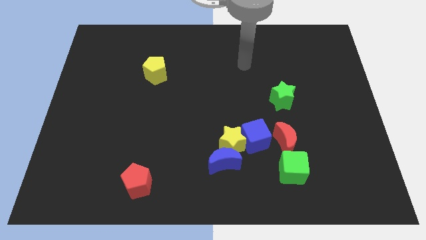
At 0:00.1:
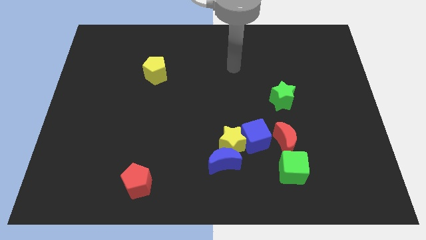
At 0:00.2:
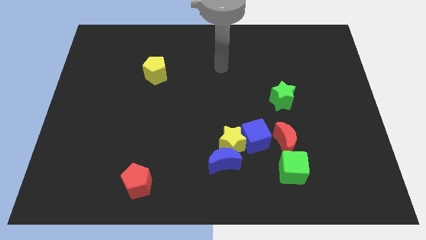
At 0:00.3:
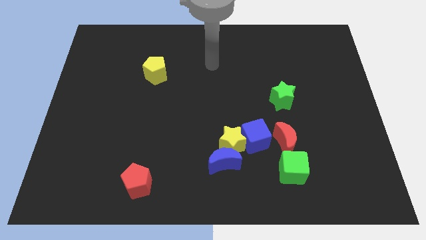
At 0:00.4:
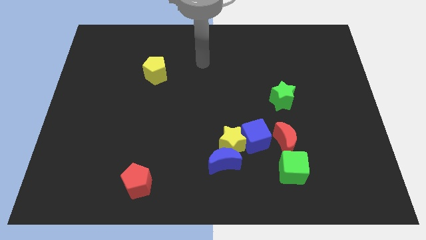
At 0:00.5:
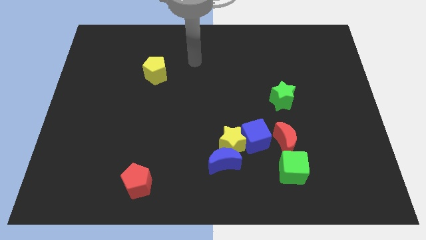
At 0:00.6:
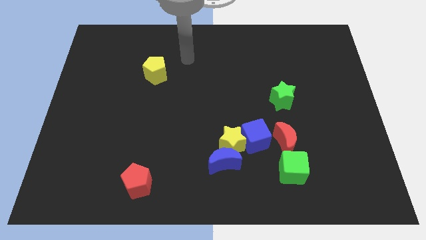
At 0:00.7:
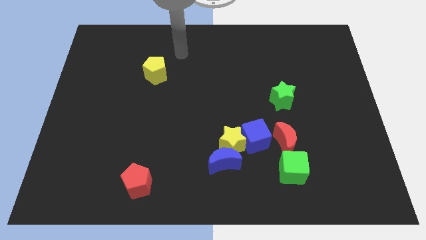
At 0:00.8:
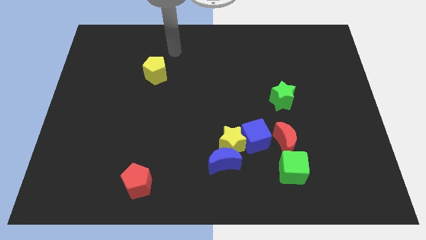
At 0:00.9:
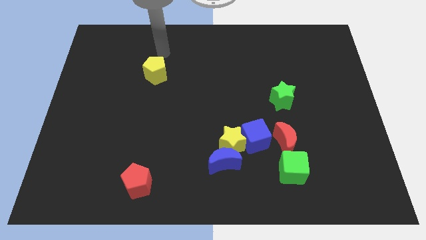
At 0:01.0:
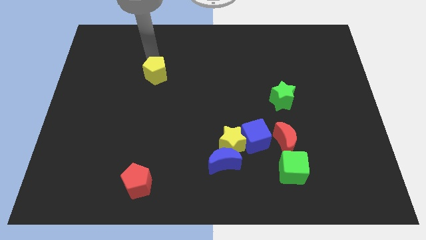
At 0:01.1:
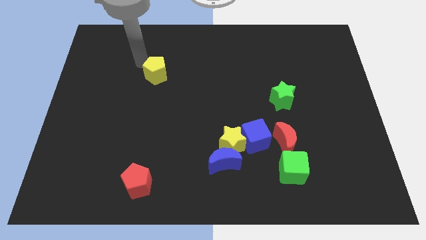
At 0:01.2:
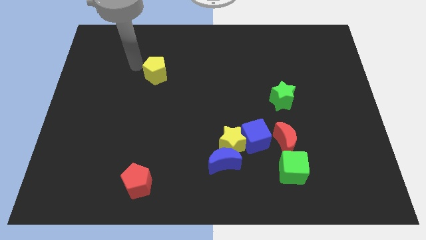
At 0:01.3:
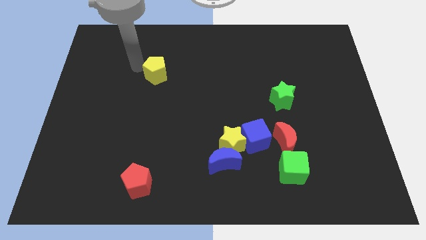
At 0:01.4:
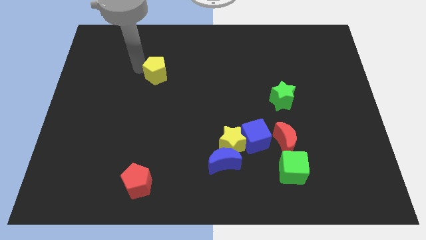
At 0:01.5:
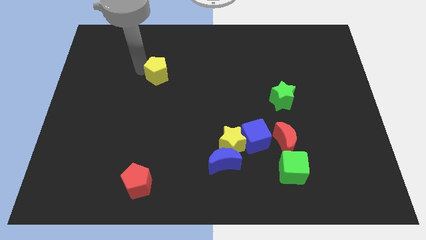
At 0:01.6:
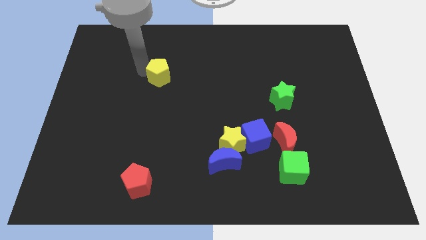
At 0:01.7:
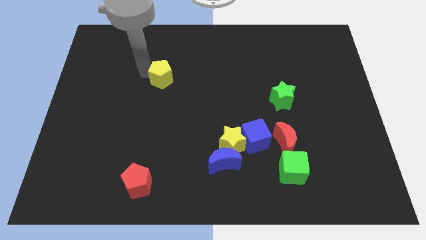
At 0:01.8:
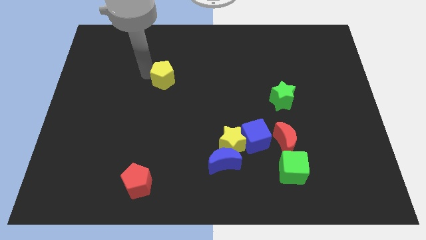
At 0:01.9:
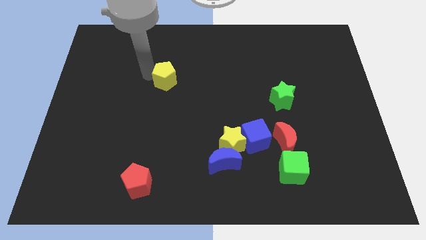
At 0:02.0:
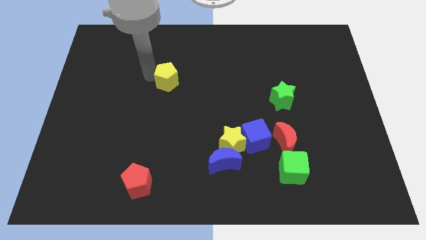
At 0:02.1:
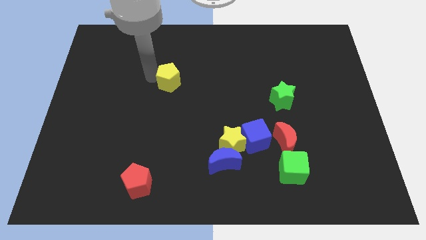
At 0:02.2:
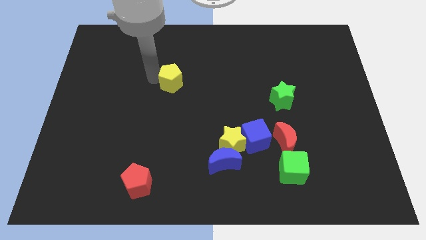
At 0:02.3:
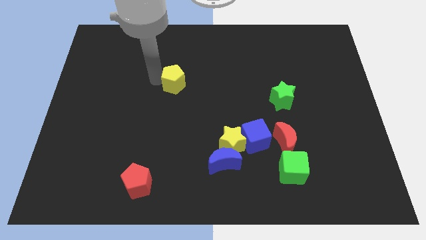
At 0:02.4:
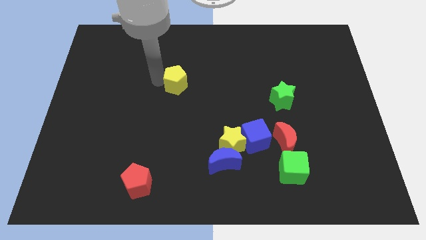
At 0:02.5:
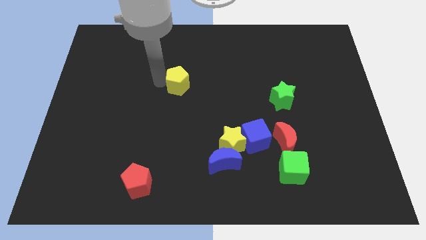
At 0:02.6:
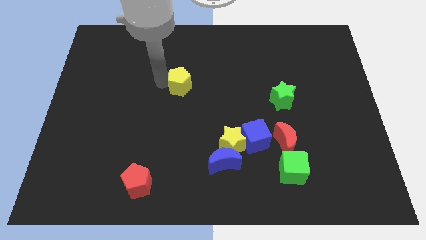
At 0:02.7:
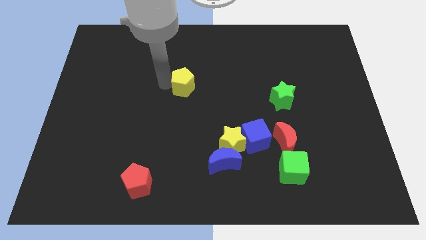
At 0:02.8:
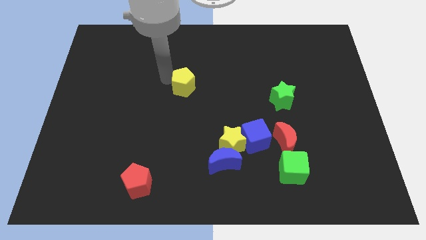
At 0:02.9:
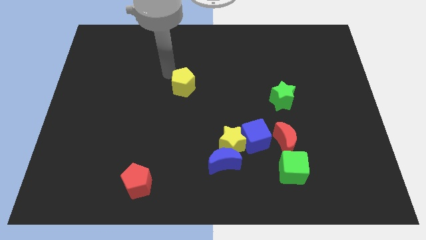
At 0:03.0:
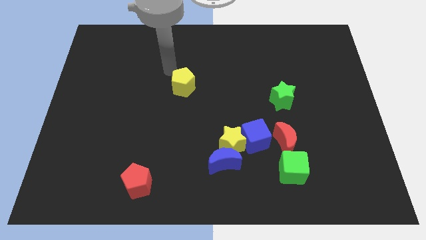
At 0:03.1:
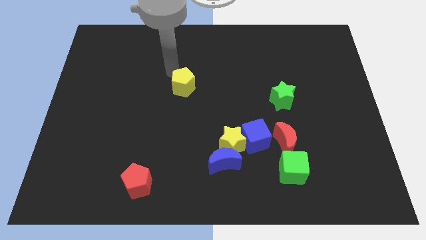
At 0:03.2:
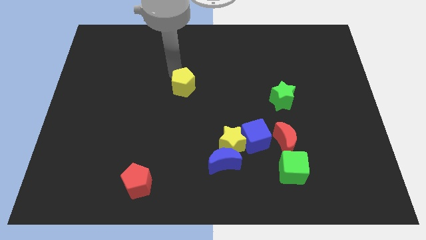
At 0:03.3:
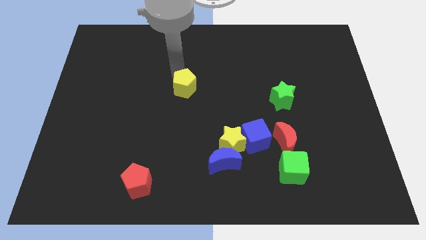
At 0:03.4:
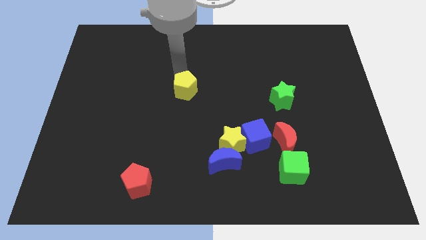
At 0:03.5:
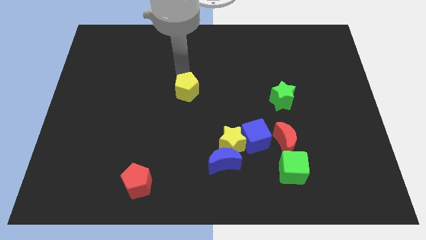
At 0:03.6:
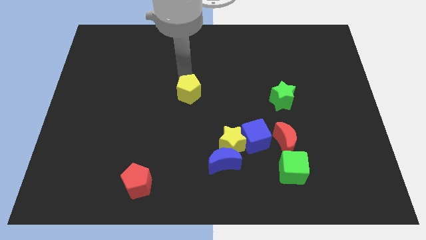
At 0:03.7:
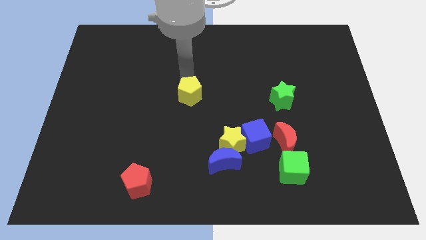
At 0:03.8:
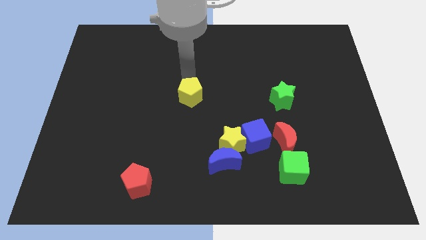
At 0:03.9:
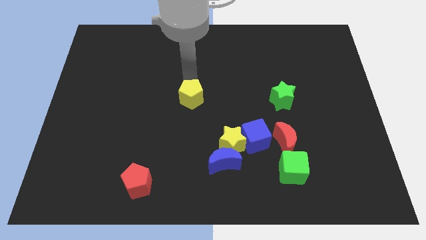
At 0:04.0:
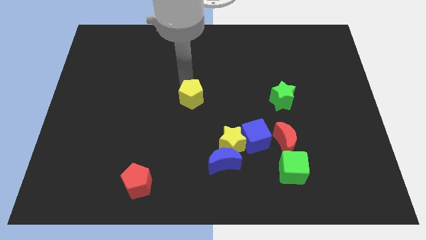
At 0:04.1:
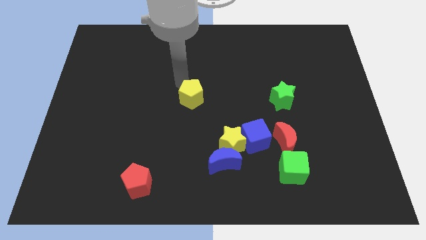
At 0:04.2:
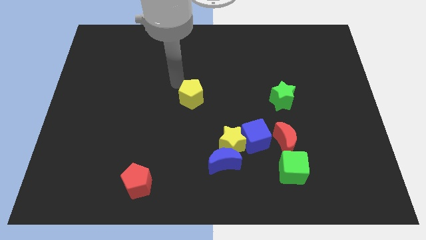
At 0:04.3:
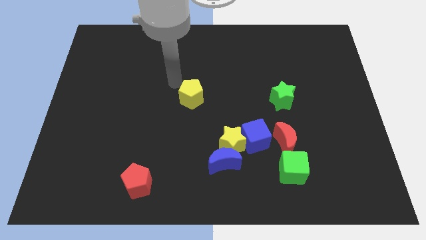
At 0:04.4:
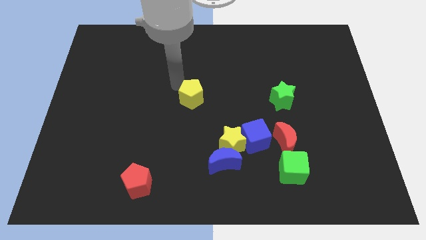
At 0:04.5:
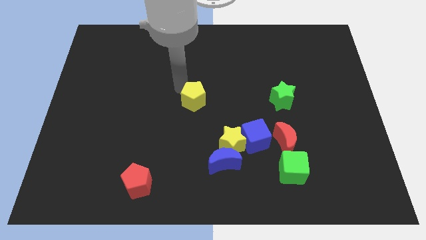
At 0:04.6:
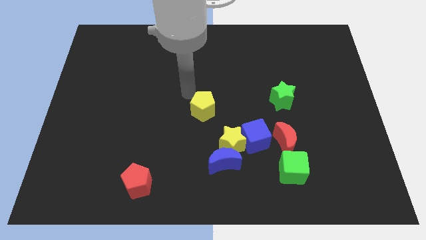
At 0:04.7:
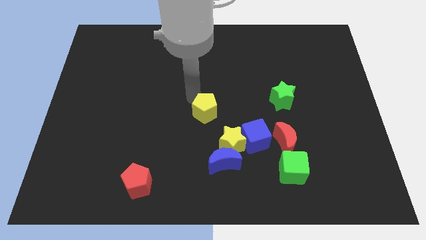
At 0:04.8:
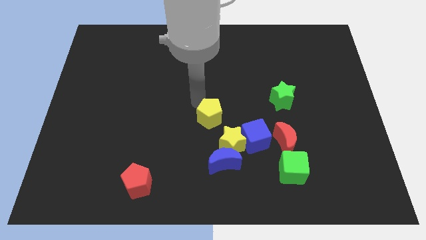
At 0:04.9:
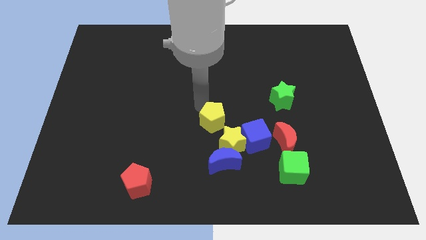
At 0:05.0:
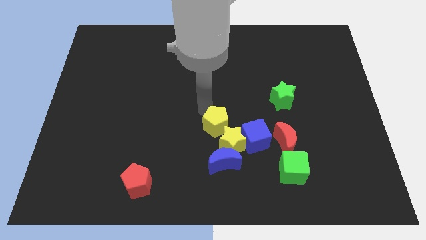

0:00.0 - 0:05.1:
push the yellow pentagon next to the yellow star

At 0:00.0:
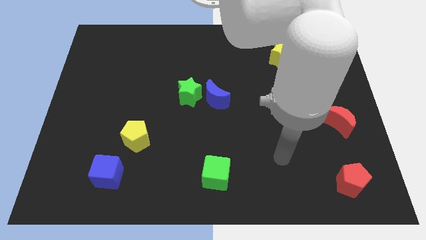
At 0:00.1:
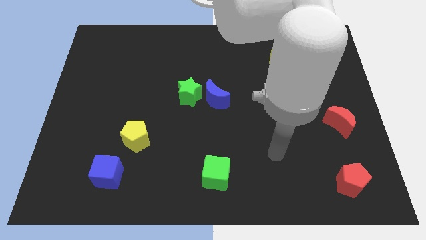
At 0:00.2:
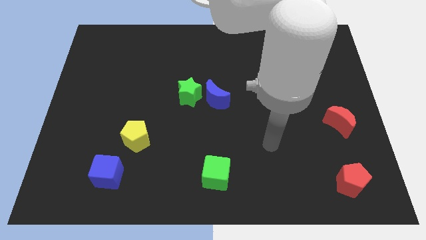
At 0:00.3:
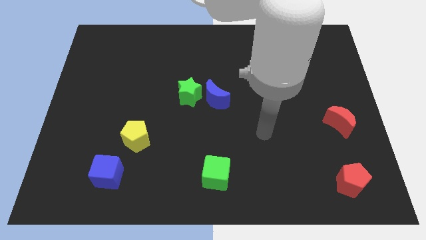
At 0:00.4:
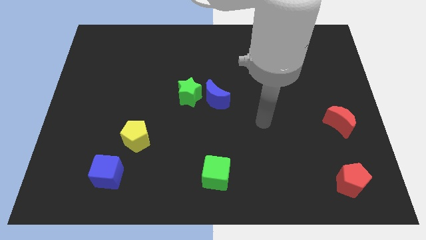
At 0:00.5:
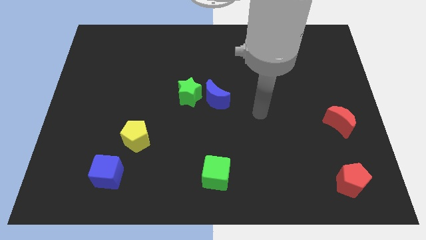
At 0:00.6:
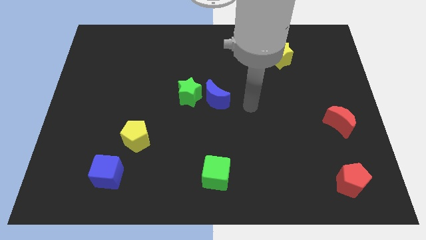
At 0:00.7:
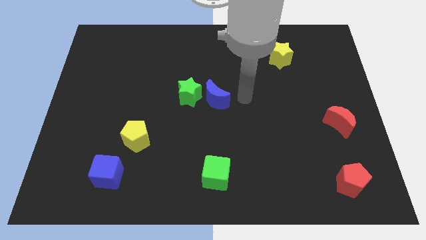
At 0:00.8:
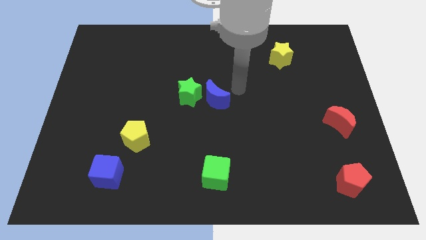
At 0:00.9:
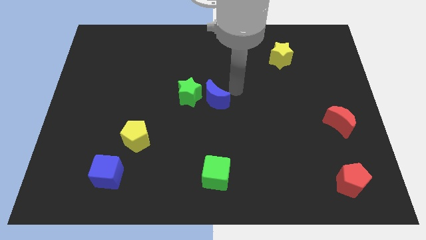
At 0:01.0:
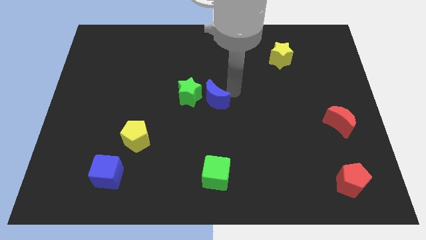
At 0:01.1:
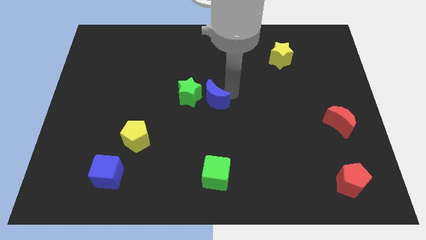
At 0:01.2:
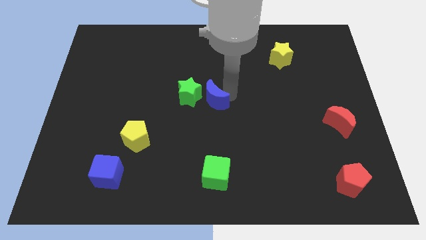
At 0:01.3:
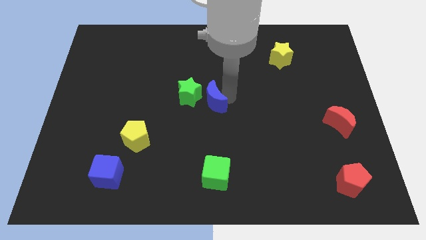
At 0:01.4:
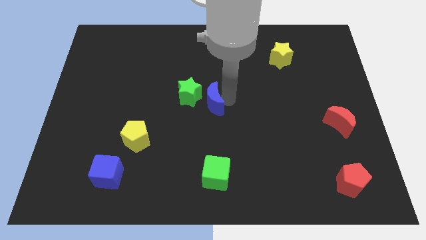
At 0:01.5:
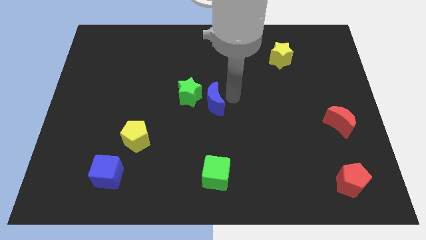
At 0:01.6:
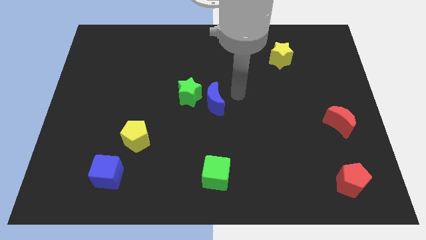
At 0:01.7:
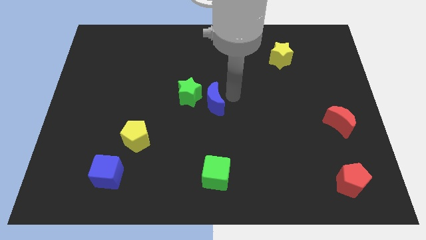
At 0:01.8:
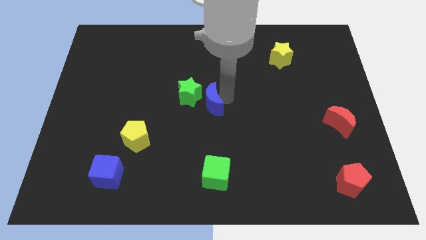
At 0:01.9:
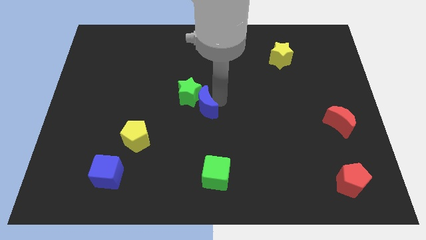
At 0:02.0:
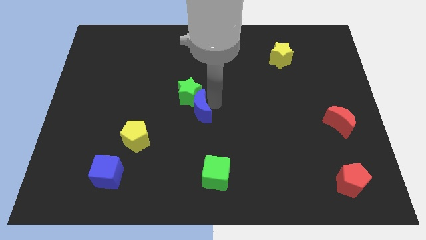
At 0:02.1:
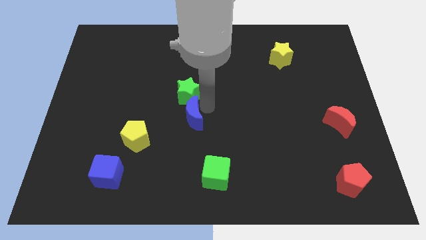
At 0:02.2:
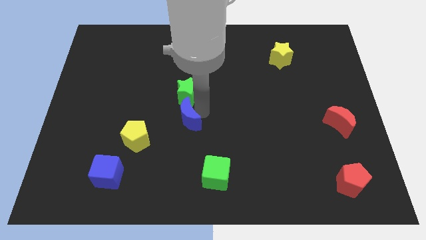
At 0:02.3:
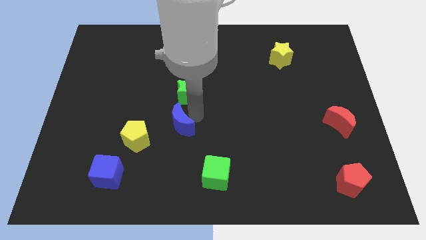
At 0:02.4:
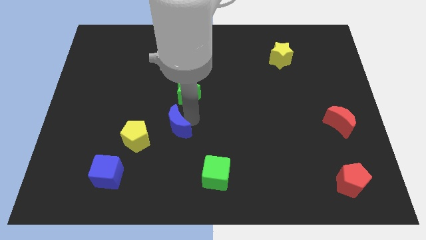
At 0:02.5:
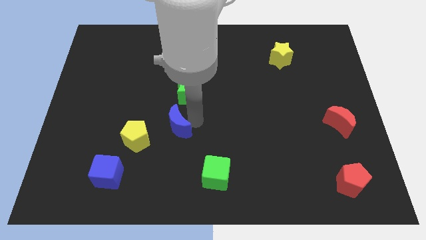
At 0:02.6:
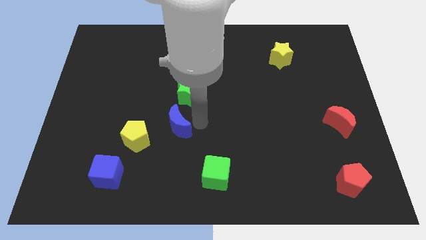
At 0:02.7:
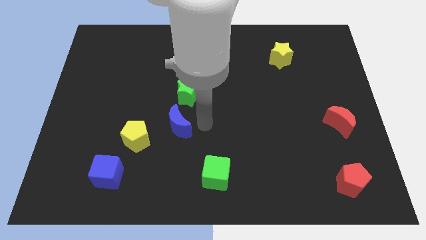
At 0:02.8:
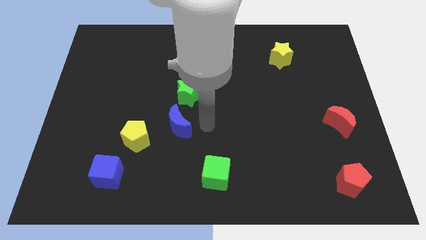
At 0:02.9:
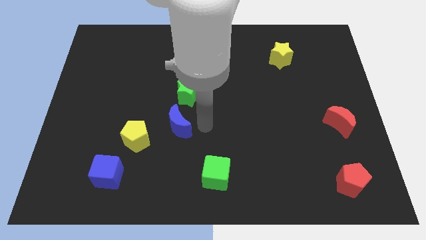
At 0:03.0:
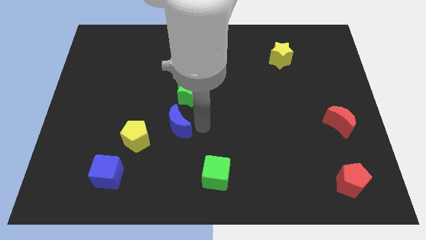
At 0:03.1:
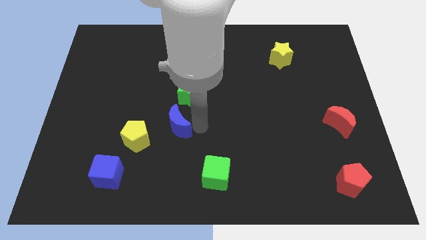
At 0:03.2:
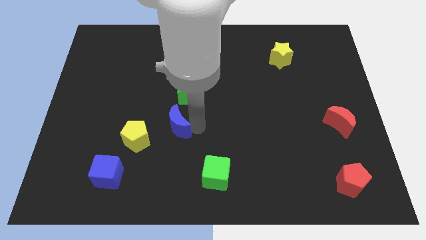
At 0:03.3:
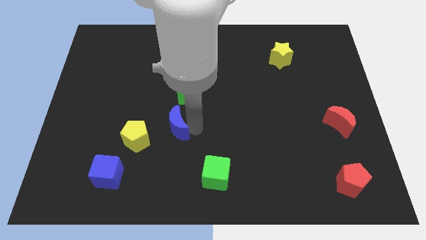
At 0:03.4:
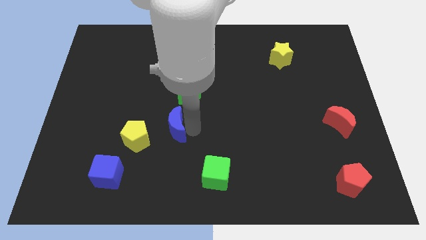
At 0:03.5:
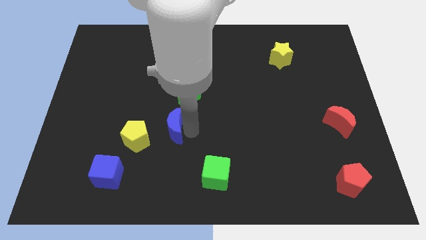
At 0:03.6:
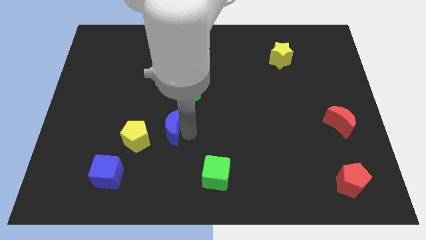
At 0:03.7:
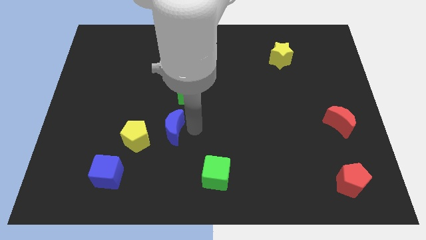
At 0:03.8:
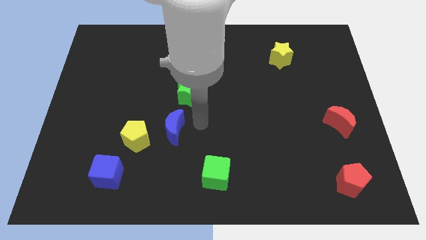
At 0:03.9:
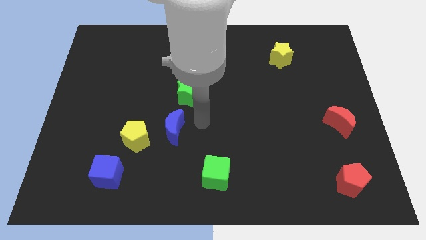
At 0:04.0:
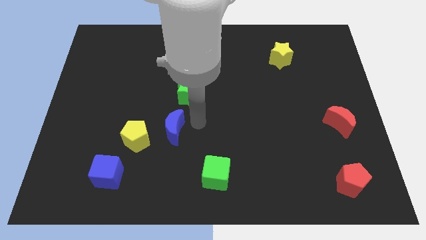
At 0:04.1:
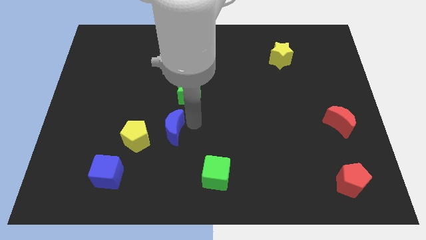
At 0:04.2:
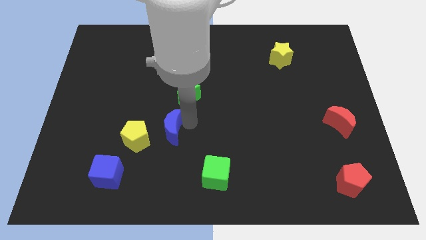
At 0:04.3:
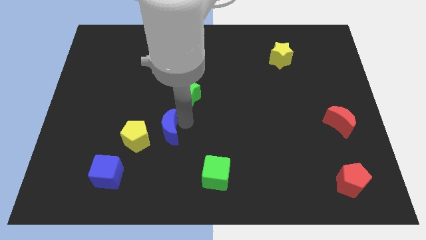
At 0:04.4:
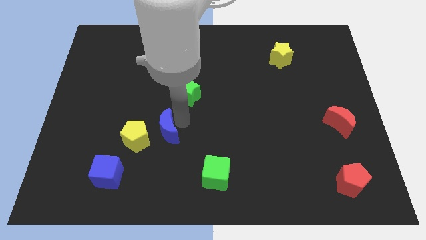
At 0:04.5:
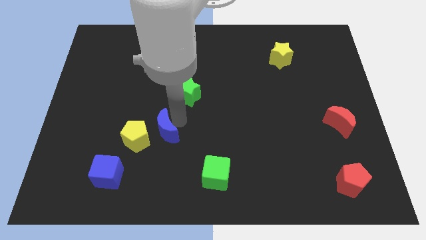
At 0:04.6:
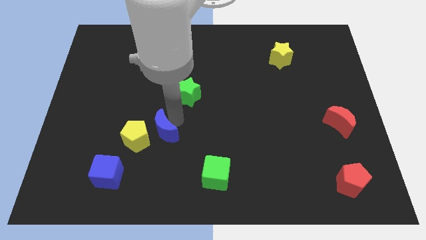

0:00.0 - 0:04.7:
put the blue moon close to the yellow pentagon
